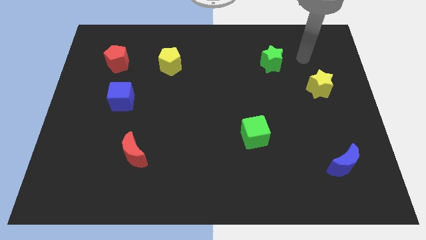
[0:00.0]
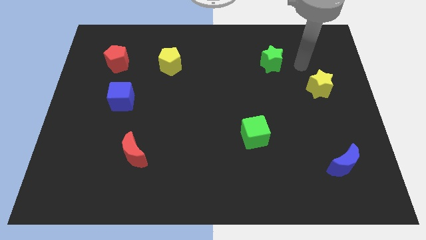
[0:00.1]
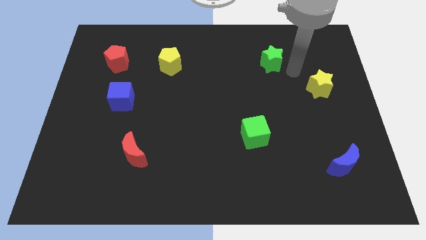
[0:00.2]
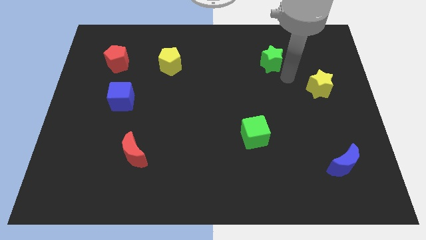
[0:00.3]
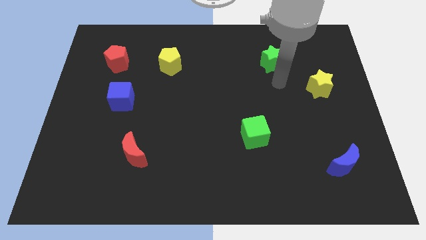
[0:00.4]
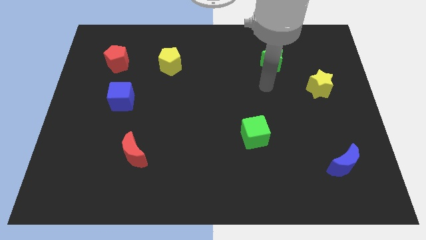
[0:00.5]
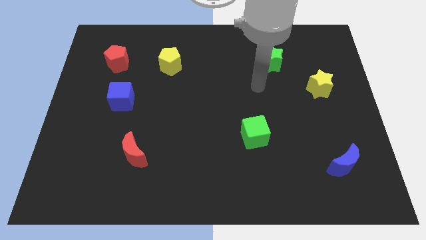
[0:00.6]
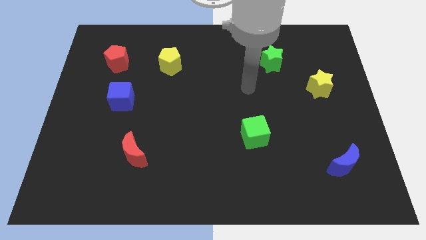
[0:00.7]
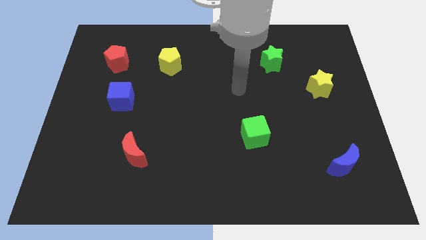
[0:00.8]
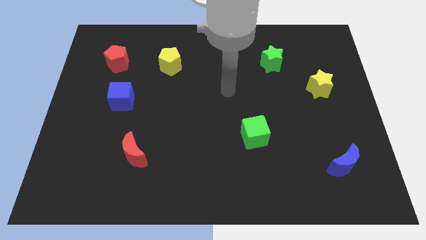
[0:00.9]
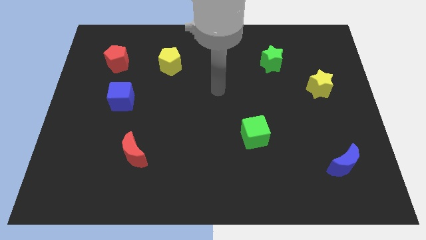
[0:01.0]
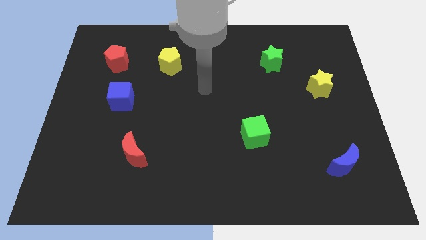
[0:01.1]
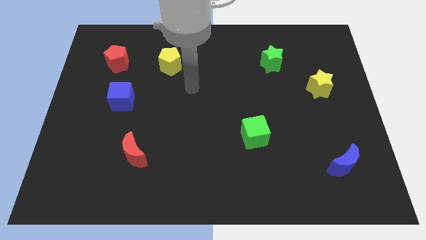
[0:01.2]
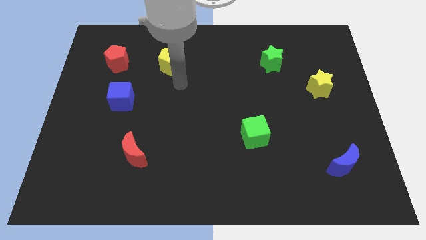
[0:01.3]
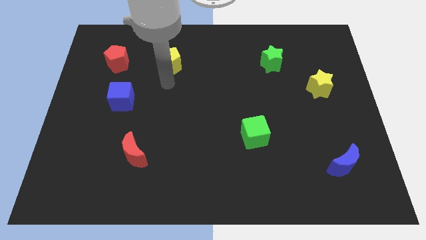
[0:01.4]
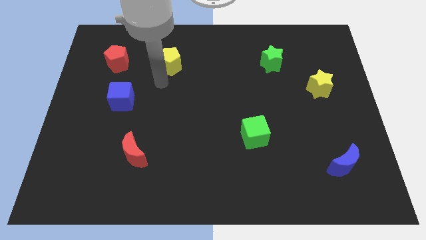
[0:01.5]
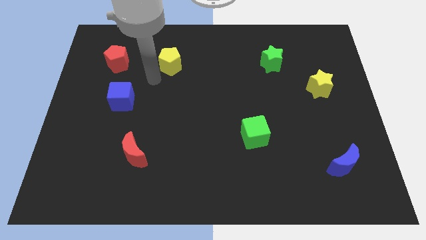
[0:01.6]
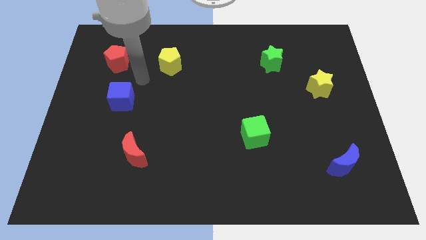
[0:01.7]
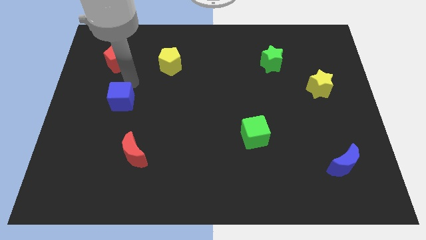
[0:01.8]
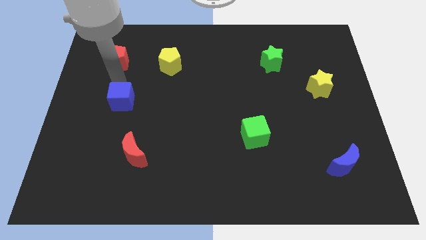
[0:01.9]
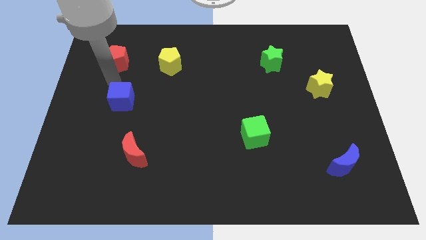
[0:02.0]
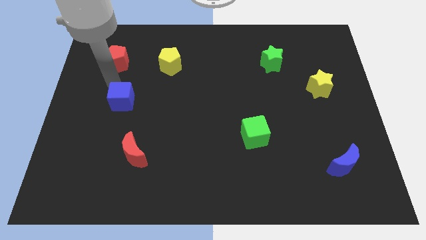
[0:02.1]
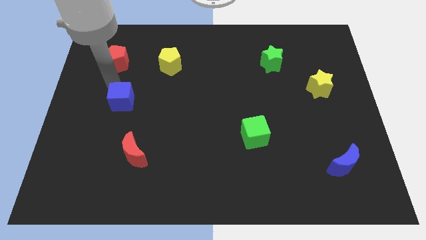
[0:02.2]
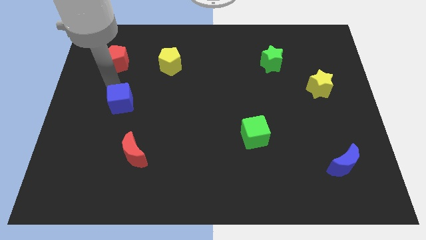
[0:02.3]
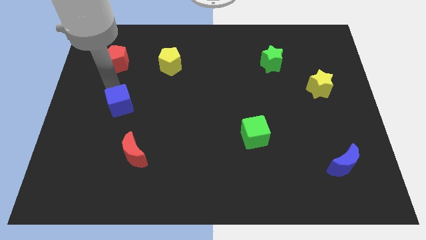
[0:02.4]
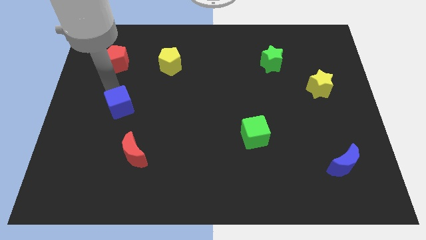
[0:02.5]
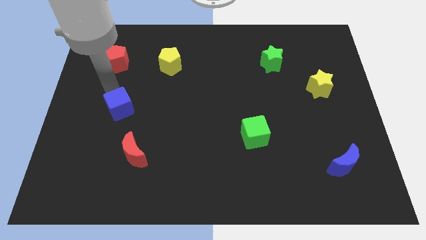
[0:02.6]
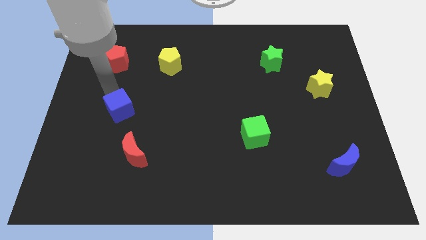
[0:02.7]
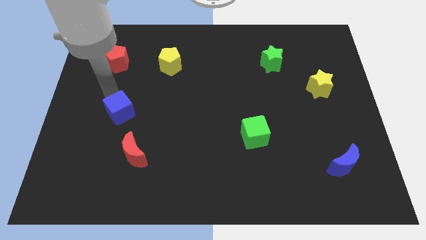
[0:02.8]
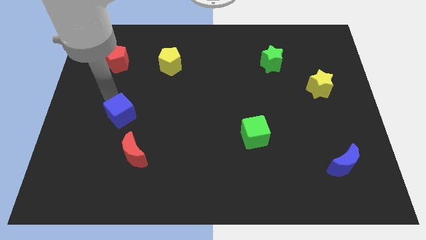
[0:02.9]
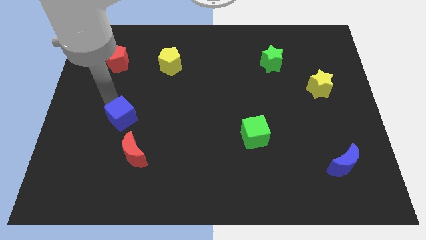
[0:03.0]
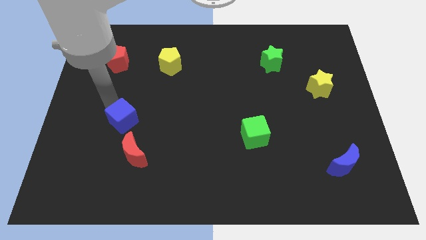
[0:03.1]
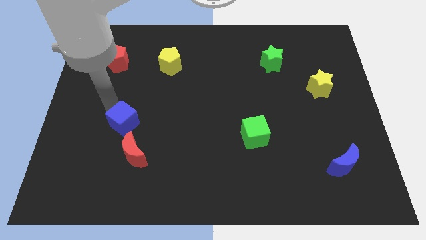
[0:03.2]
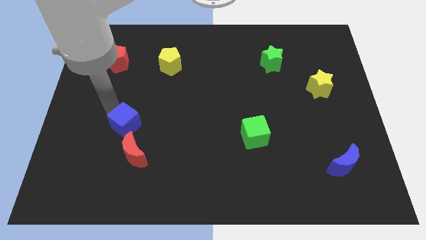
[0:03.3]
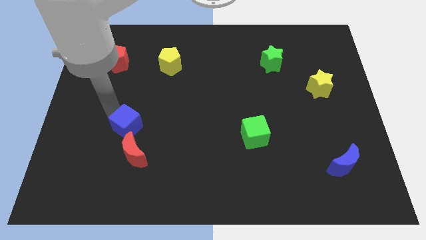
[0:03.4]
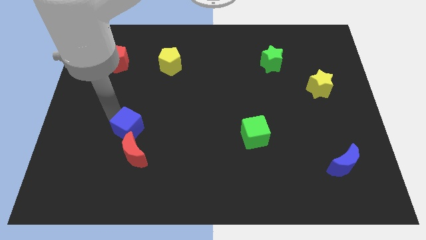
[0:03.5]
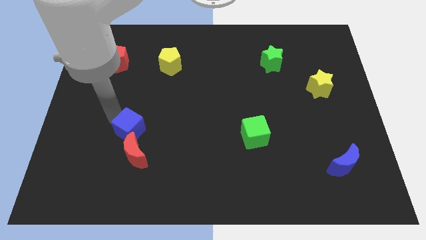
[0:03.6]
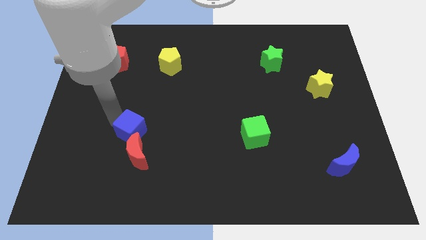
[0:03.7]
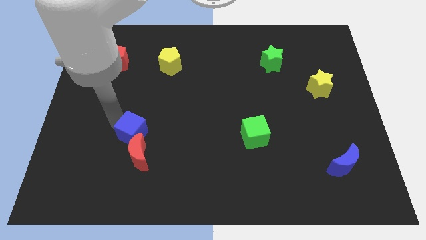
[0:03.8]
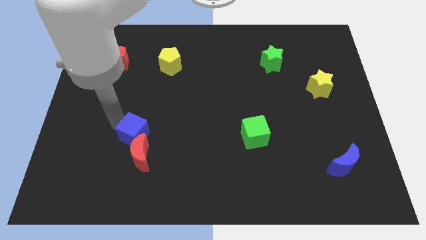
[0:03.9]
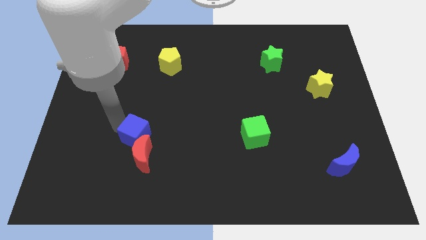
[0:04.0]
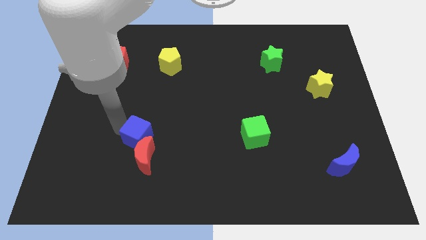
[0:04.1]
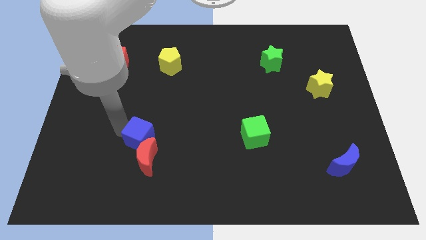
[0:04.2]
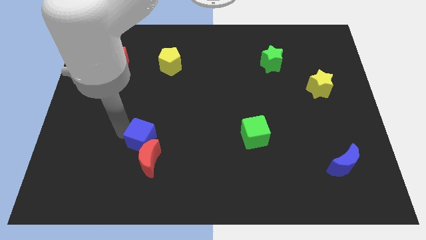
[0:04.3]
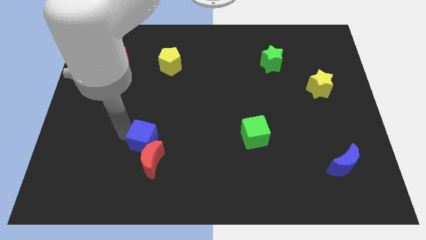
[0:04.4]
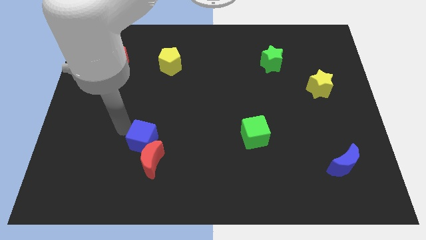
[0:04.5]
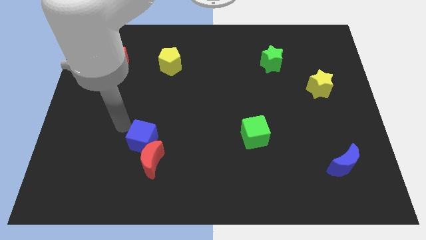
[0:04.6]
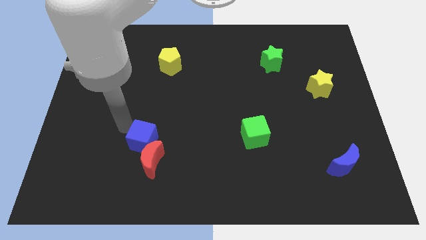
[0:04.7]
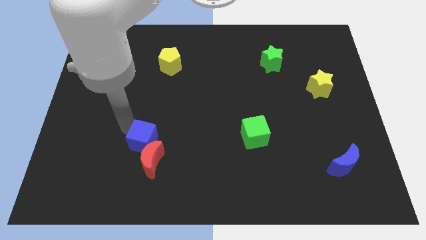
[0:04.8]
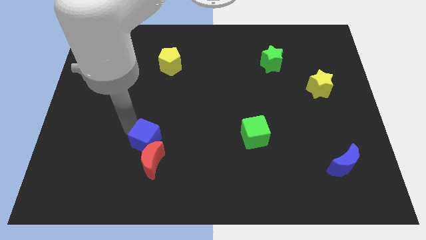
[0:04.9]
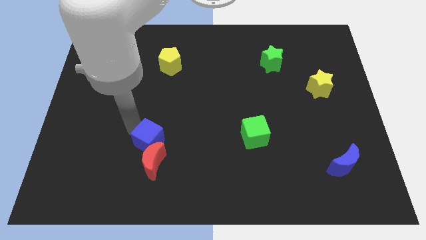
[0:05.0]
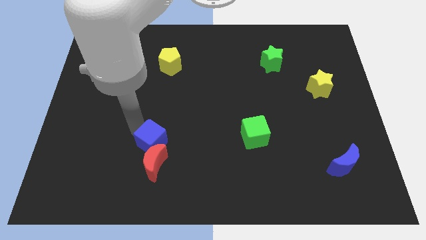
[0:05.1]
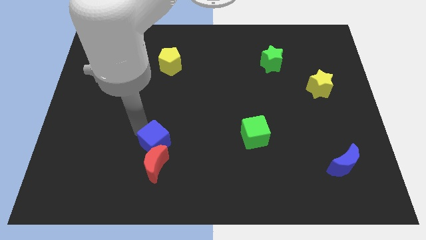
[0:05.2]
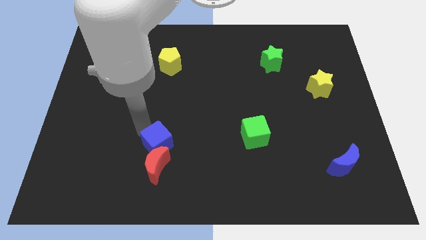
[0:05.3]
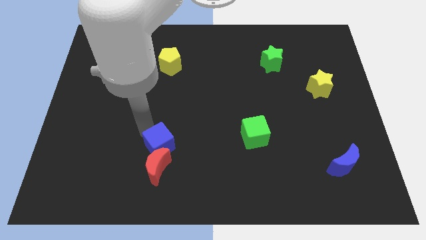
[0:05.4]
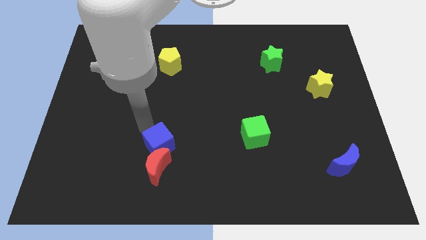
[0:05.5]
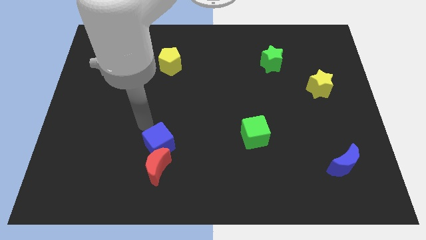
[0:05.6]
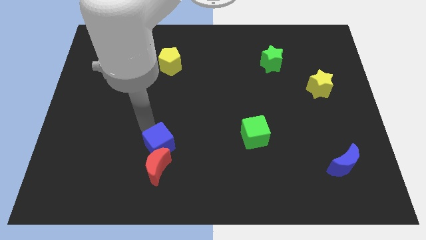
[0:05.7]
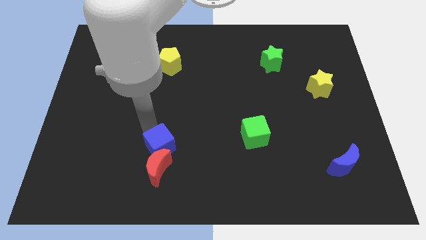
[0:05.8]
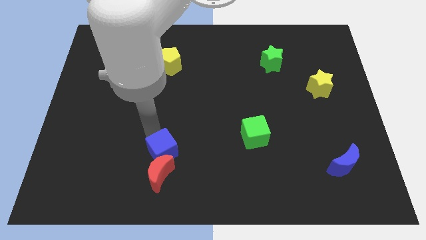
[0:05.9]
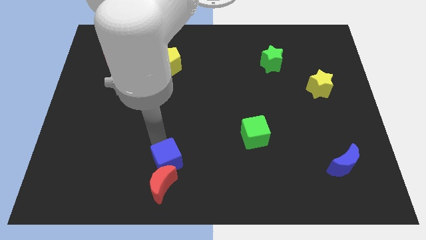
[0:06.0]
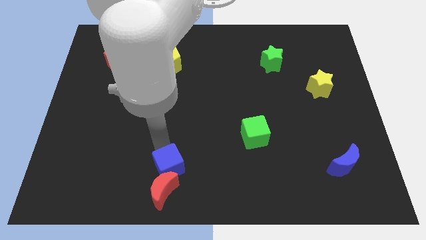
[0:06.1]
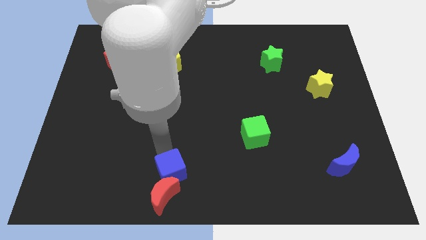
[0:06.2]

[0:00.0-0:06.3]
slide the blue cube to the bottom side

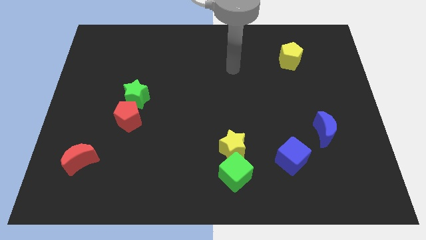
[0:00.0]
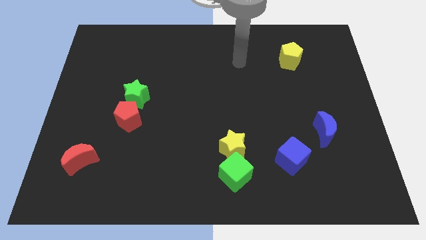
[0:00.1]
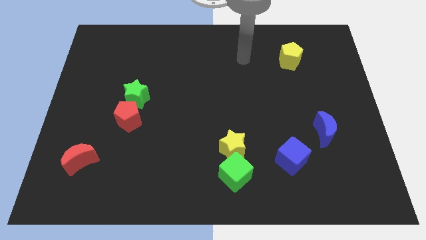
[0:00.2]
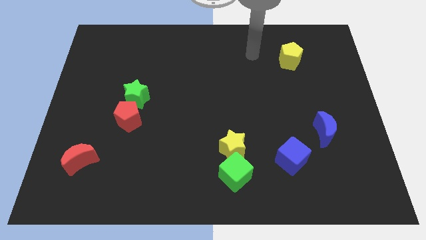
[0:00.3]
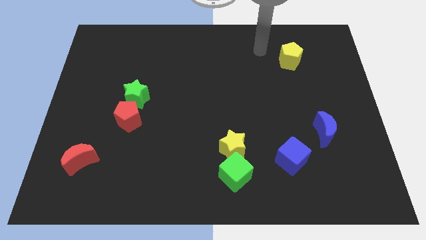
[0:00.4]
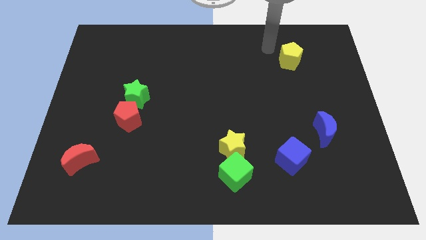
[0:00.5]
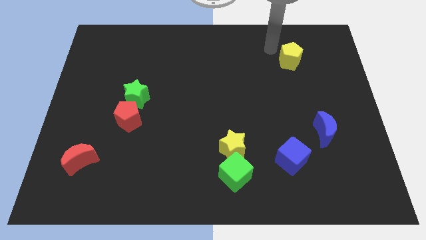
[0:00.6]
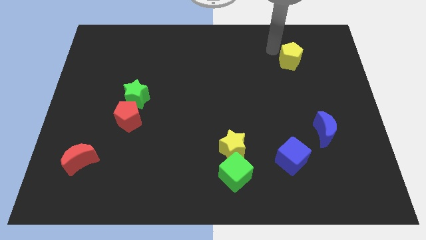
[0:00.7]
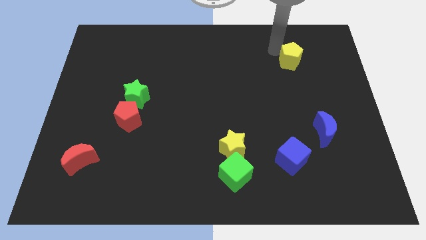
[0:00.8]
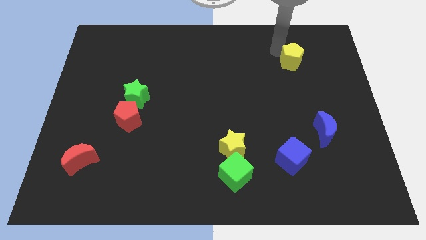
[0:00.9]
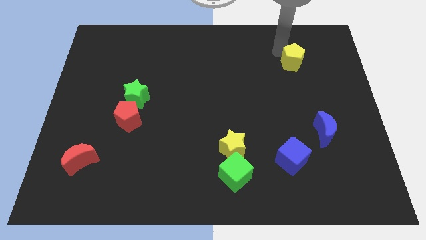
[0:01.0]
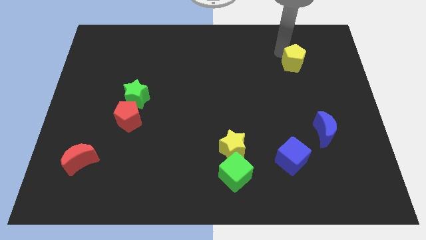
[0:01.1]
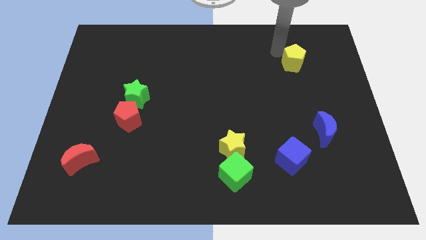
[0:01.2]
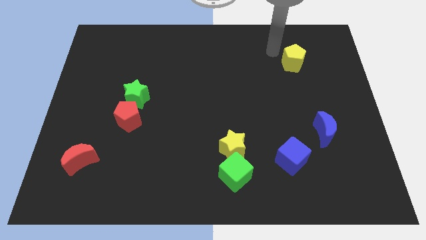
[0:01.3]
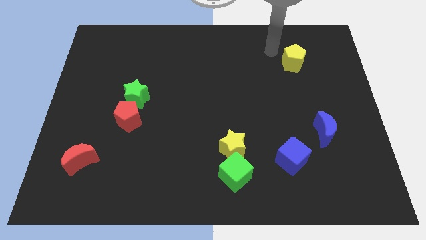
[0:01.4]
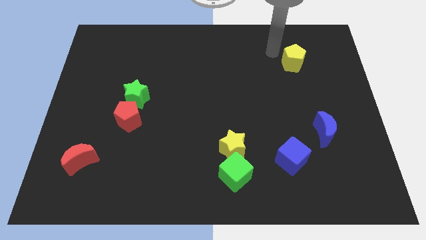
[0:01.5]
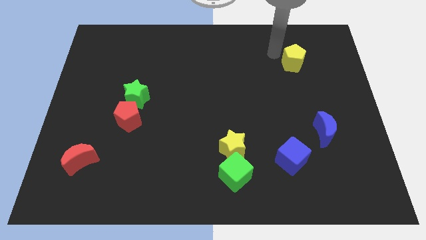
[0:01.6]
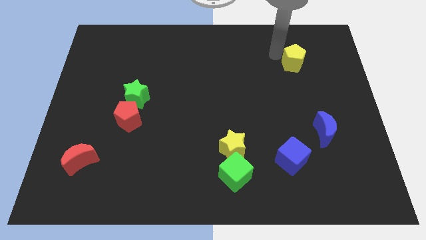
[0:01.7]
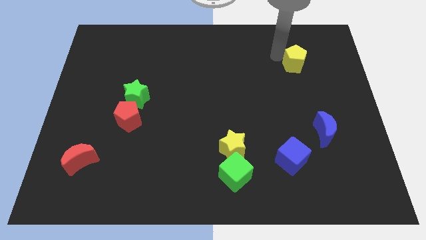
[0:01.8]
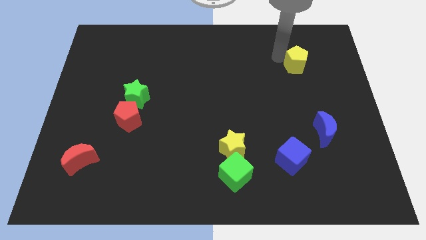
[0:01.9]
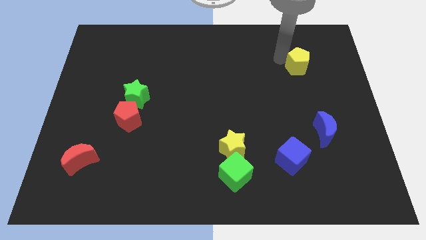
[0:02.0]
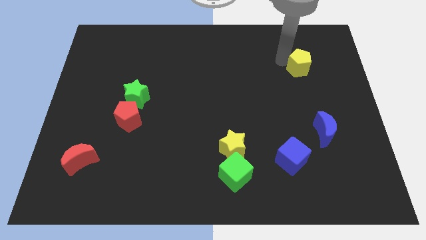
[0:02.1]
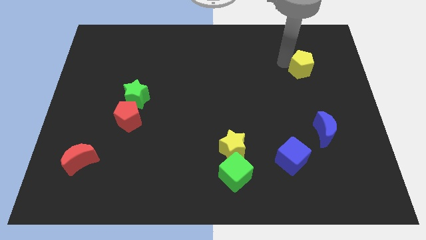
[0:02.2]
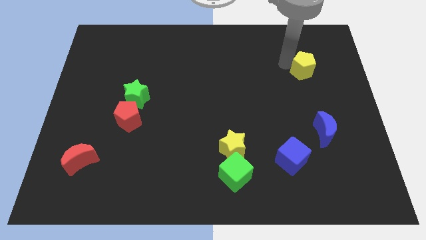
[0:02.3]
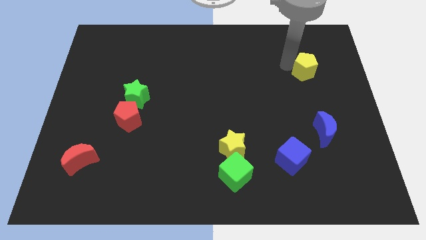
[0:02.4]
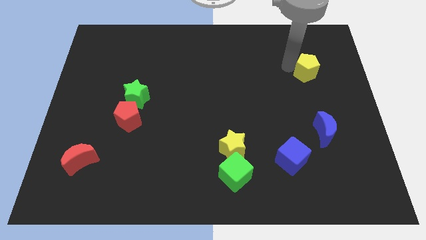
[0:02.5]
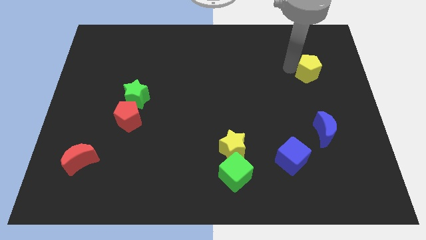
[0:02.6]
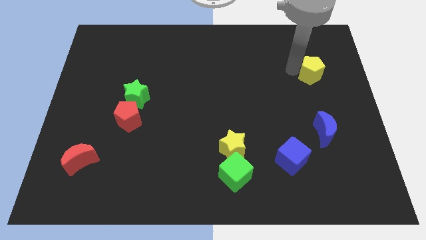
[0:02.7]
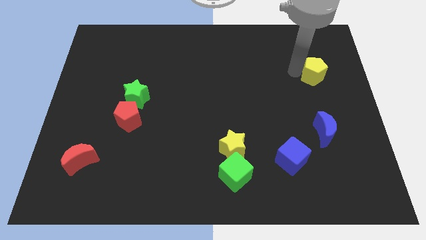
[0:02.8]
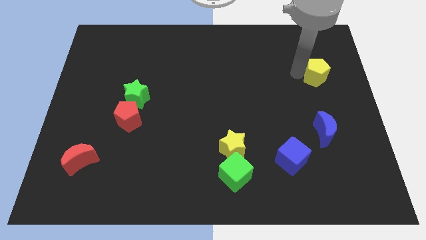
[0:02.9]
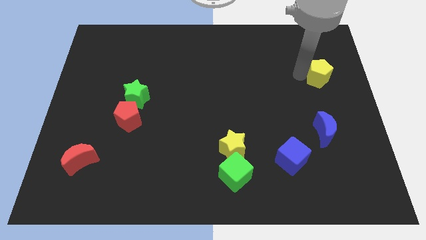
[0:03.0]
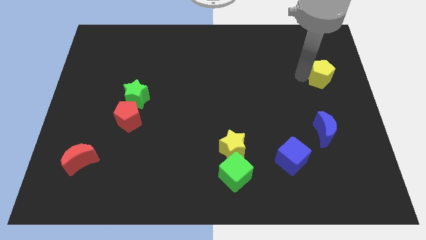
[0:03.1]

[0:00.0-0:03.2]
move the yellow pentagon to the right side
